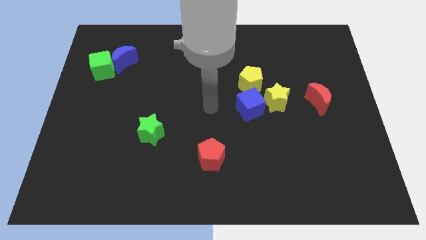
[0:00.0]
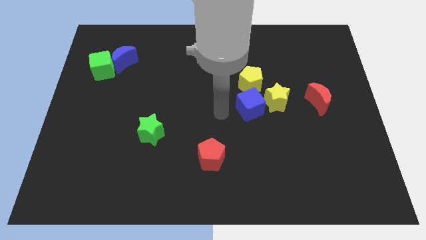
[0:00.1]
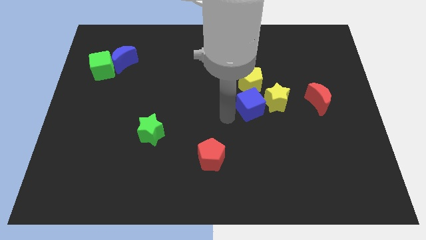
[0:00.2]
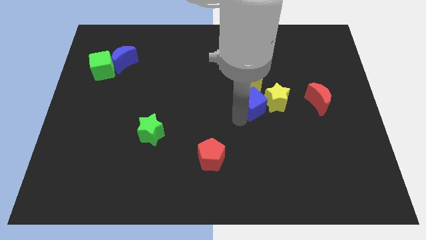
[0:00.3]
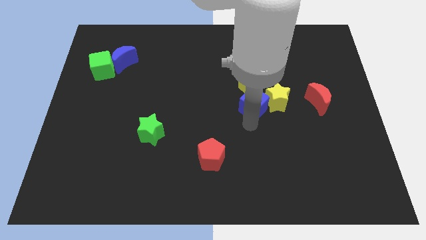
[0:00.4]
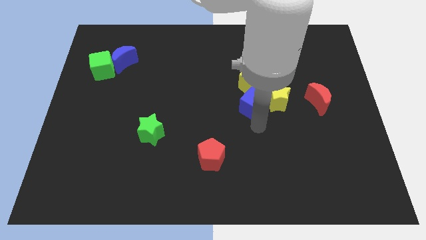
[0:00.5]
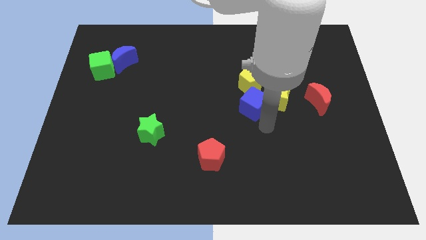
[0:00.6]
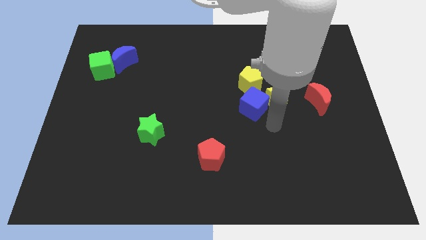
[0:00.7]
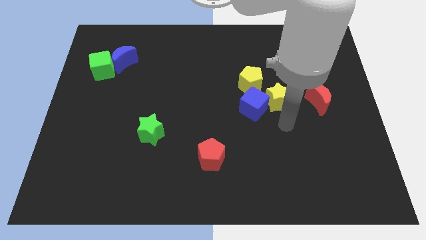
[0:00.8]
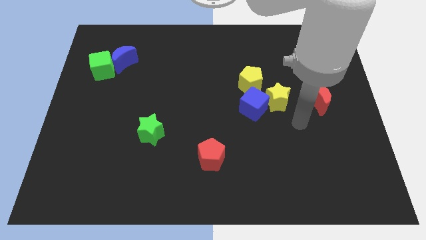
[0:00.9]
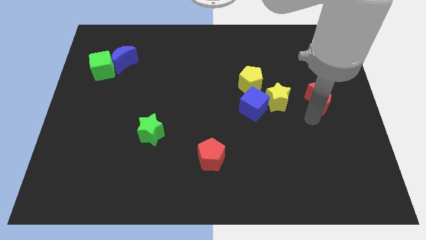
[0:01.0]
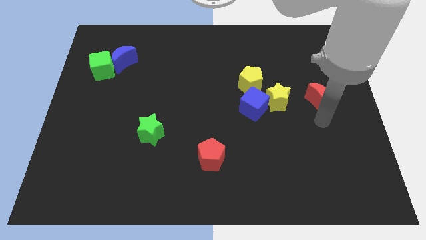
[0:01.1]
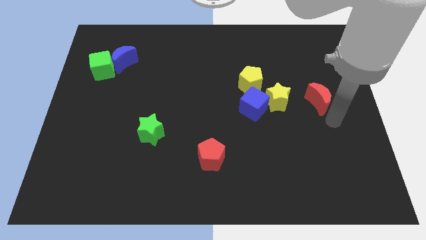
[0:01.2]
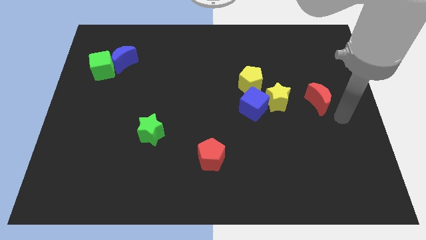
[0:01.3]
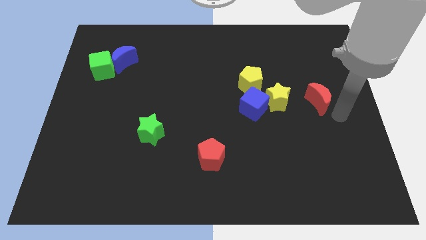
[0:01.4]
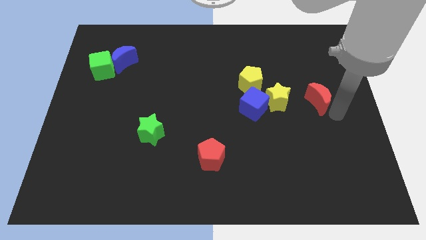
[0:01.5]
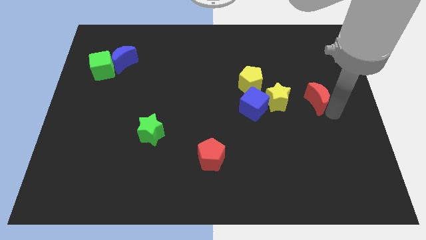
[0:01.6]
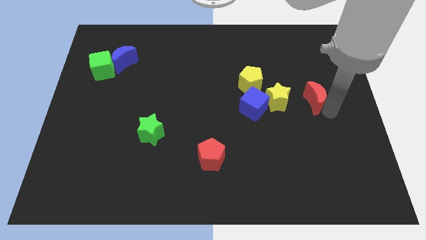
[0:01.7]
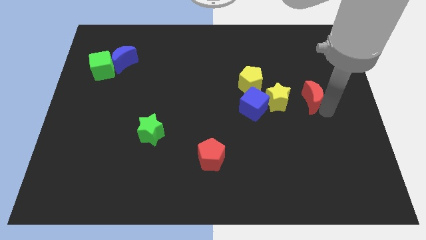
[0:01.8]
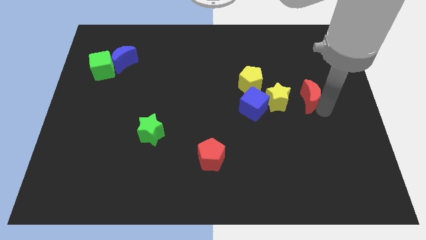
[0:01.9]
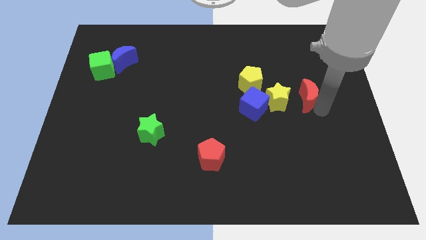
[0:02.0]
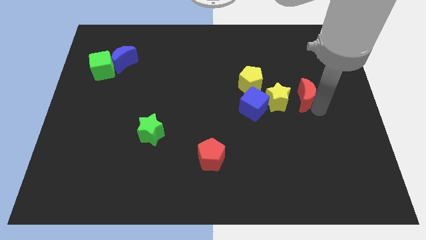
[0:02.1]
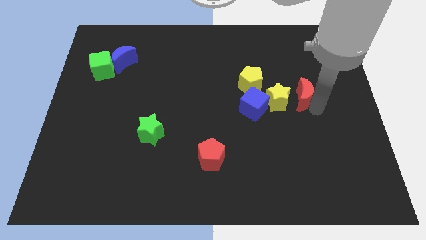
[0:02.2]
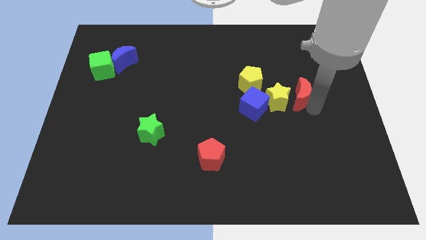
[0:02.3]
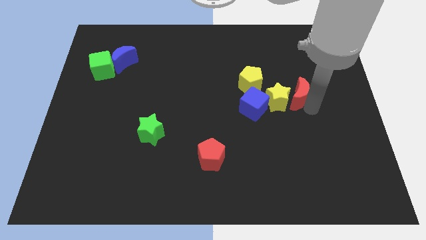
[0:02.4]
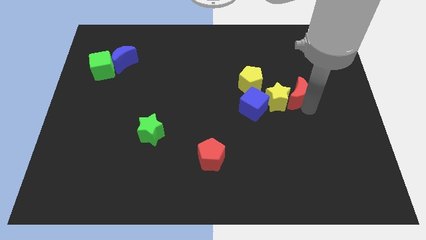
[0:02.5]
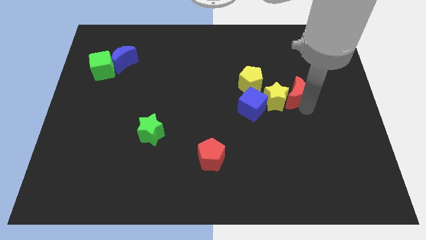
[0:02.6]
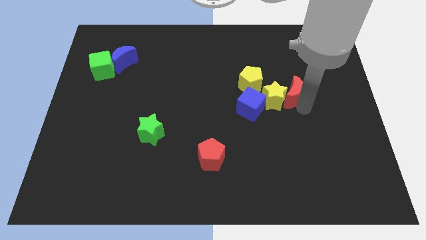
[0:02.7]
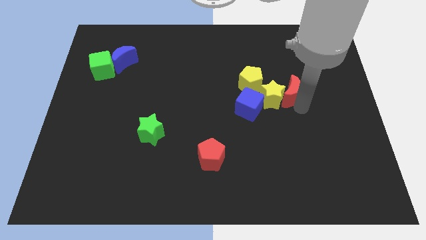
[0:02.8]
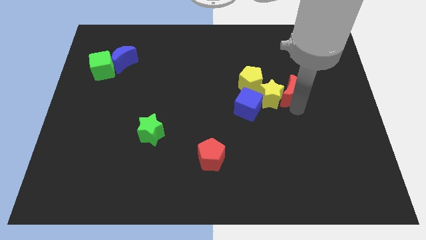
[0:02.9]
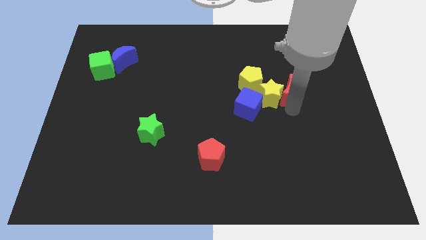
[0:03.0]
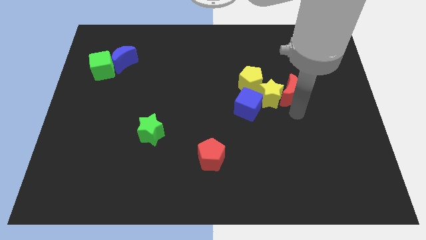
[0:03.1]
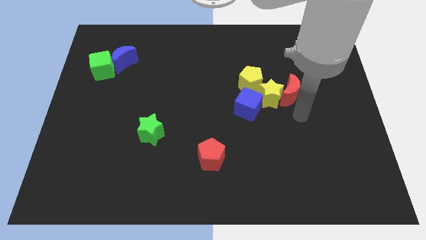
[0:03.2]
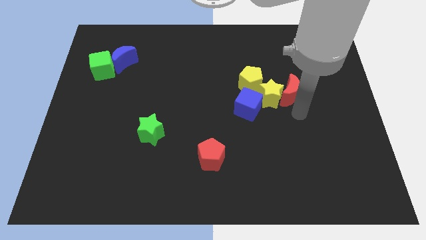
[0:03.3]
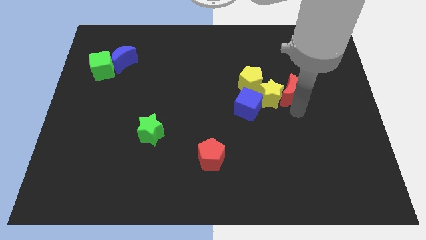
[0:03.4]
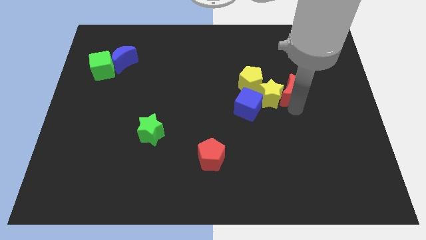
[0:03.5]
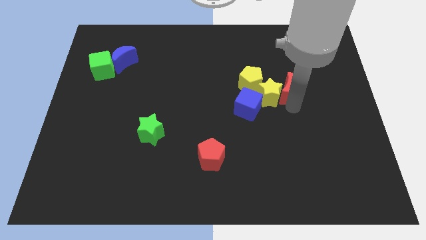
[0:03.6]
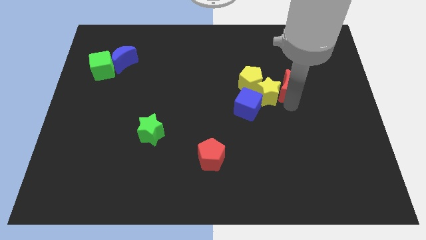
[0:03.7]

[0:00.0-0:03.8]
push the red moon slightly upwards and then left

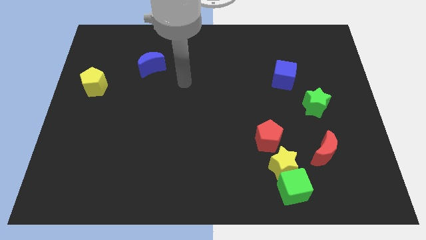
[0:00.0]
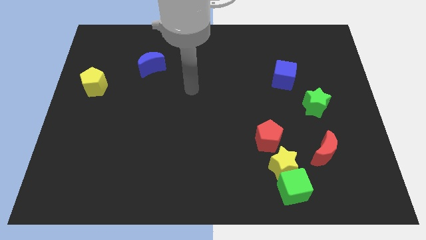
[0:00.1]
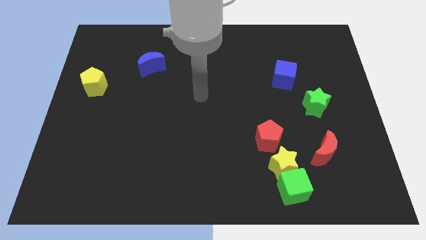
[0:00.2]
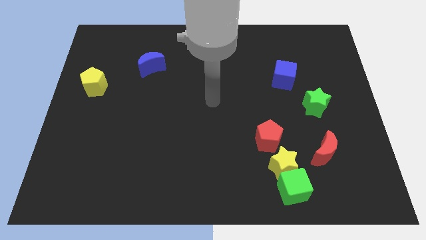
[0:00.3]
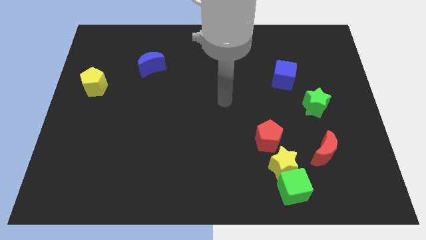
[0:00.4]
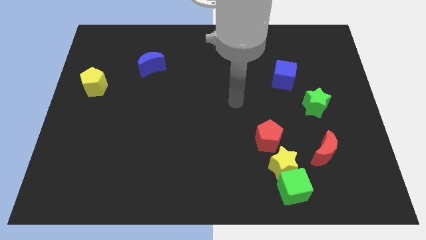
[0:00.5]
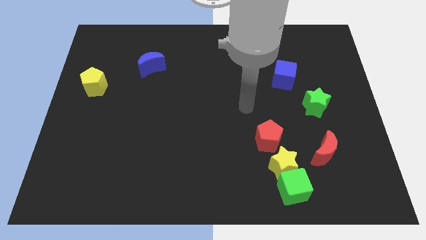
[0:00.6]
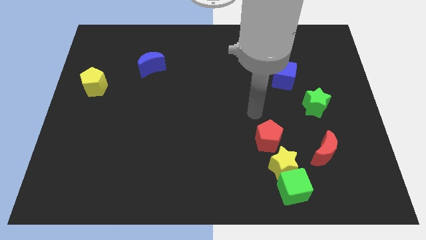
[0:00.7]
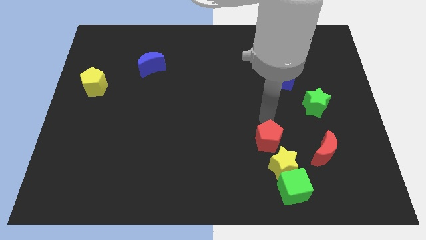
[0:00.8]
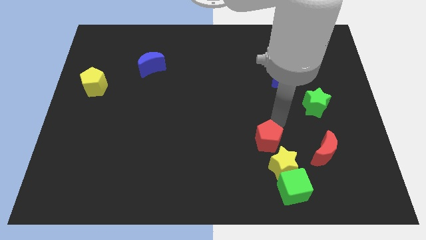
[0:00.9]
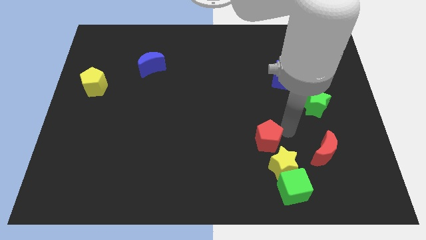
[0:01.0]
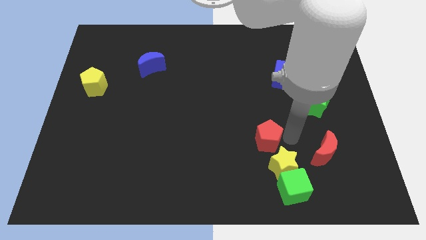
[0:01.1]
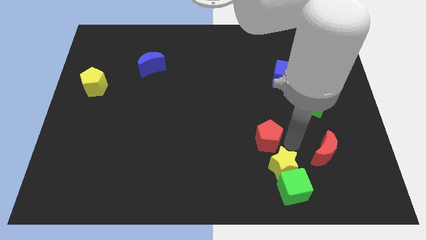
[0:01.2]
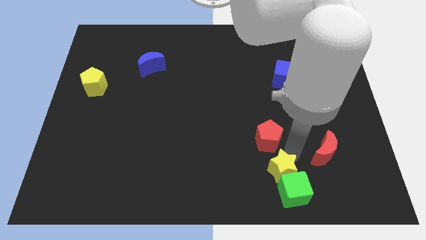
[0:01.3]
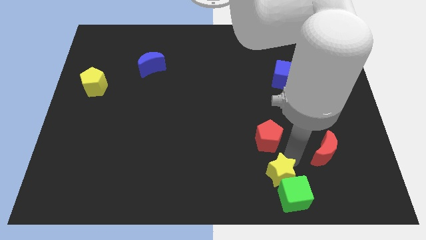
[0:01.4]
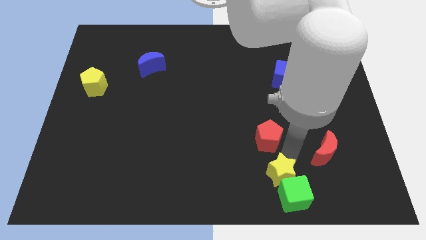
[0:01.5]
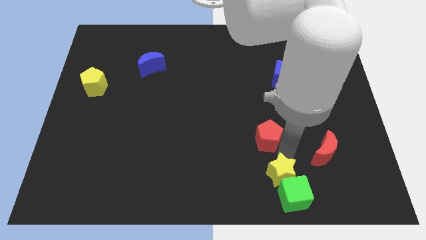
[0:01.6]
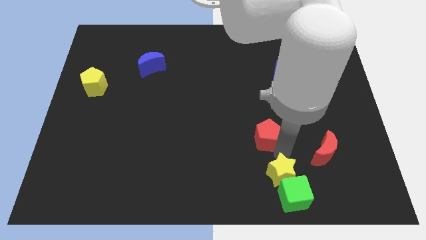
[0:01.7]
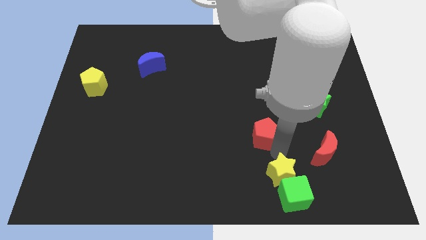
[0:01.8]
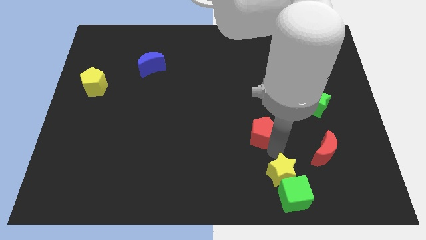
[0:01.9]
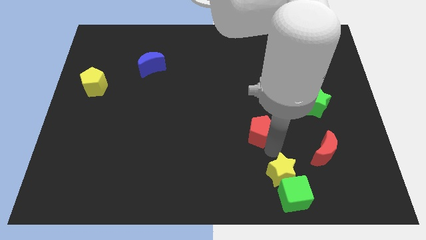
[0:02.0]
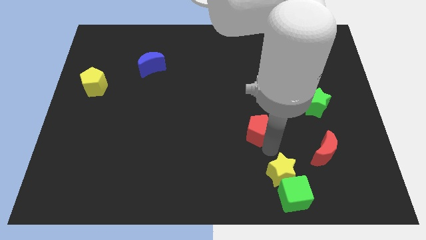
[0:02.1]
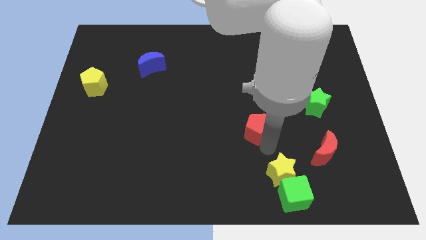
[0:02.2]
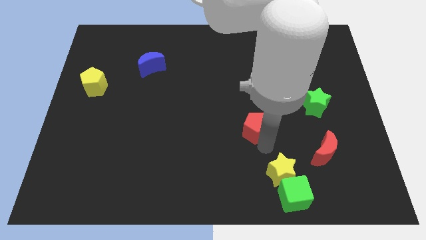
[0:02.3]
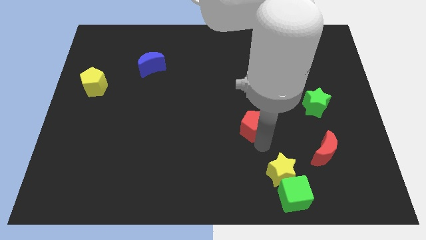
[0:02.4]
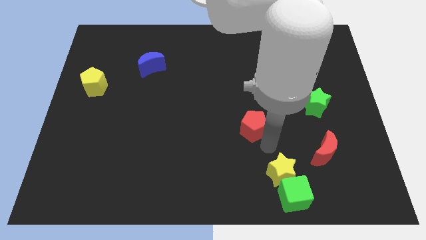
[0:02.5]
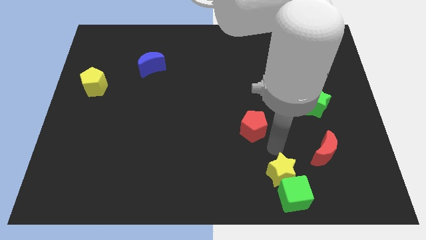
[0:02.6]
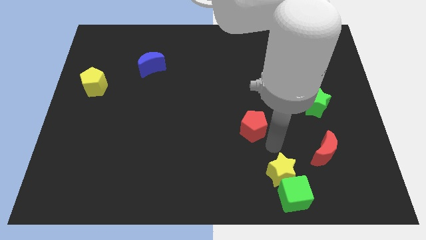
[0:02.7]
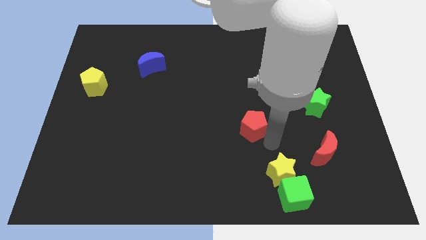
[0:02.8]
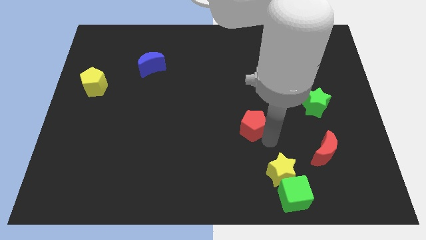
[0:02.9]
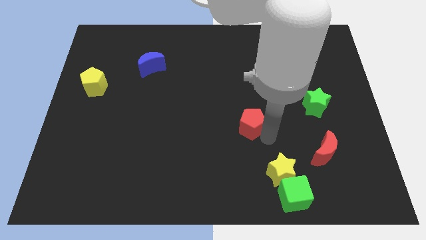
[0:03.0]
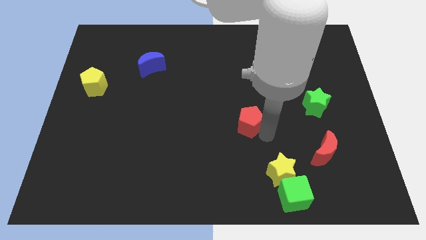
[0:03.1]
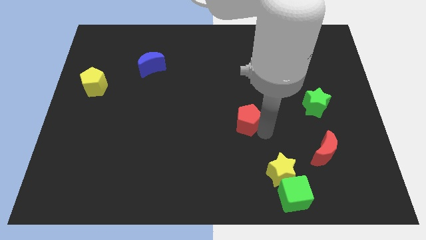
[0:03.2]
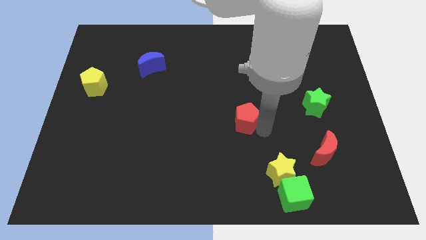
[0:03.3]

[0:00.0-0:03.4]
slightly move the red pentagon upwards and left diagonally

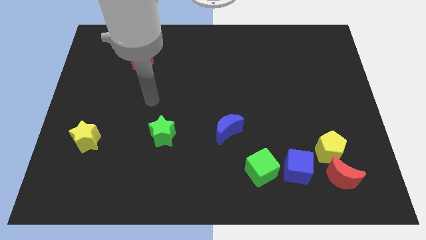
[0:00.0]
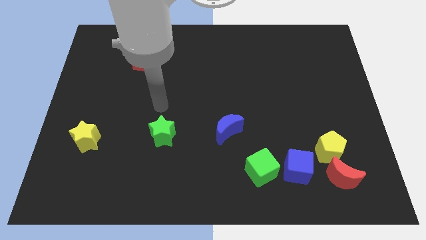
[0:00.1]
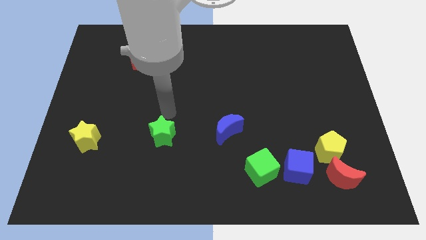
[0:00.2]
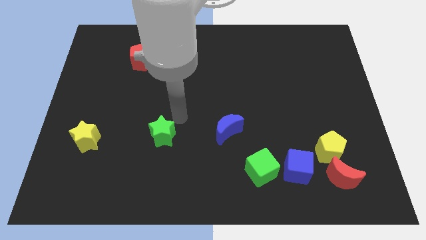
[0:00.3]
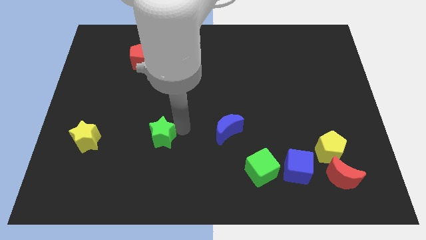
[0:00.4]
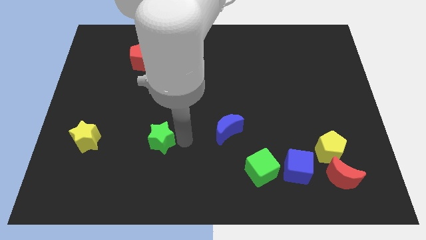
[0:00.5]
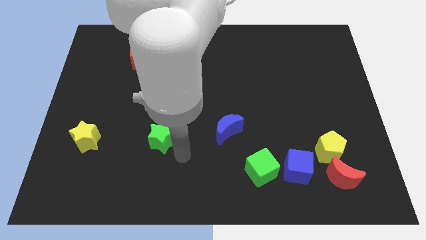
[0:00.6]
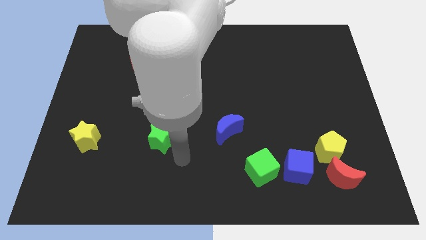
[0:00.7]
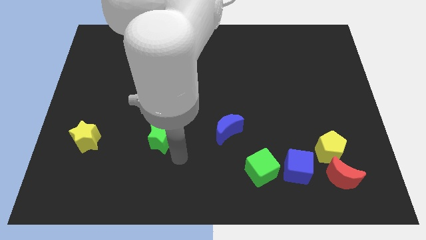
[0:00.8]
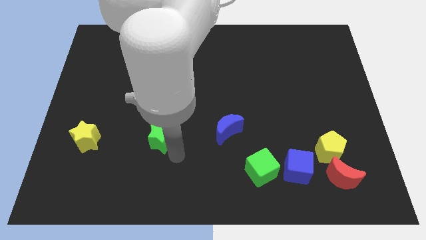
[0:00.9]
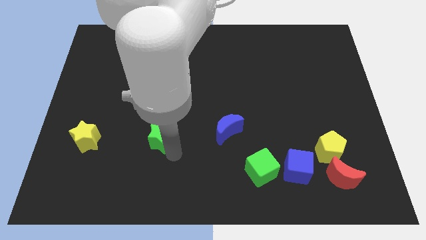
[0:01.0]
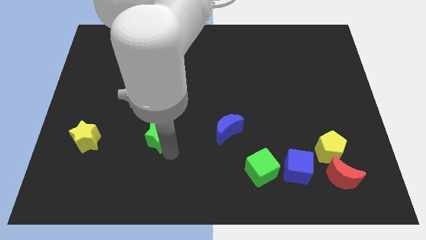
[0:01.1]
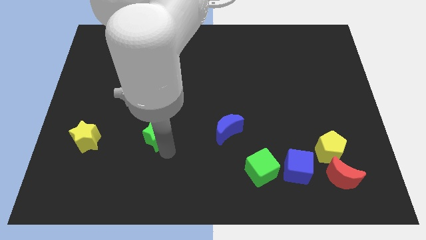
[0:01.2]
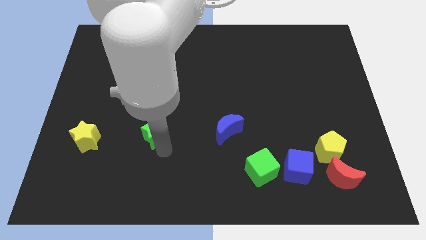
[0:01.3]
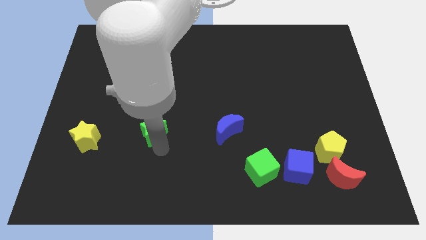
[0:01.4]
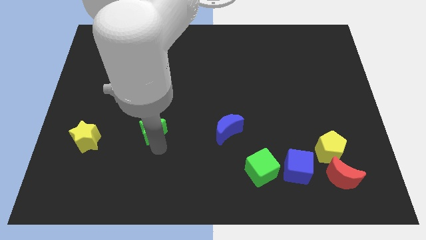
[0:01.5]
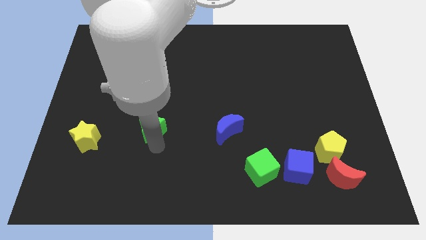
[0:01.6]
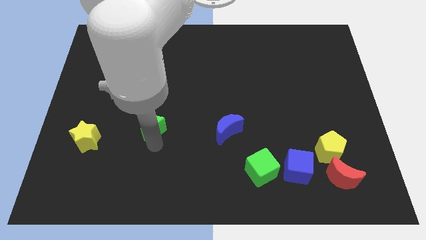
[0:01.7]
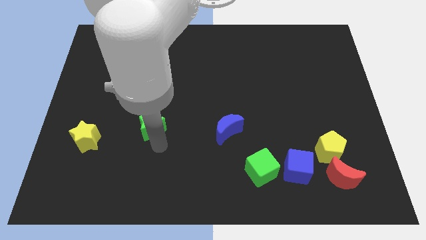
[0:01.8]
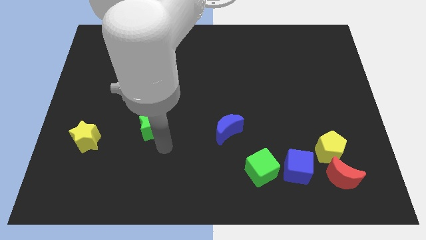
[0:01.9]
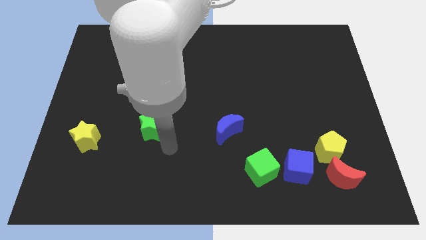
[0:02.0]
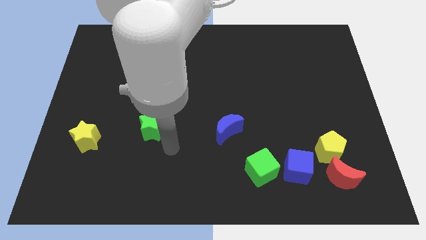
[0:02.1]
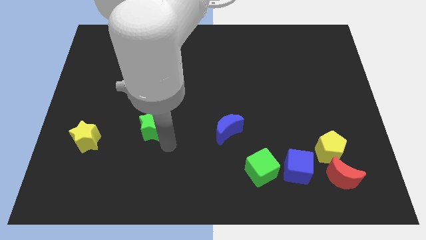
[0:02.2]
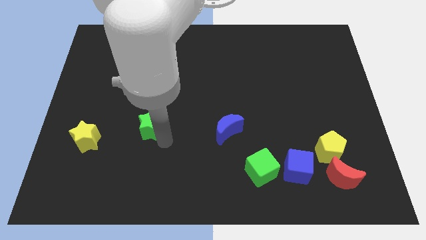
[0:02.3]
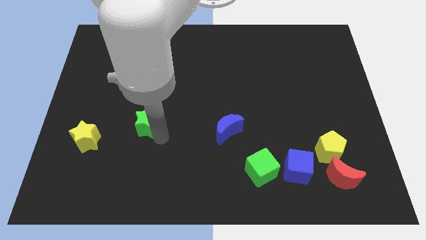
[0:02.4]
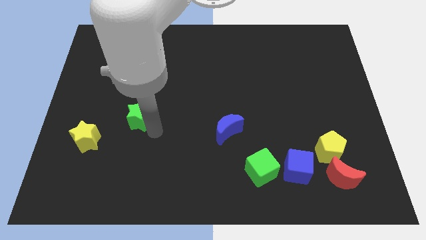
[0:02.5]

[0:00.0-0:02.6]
slide the green star somewhat diagonally up and left
